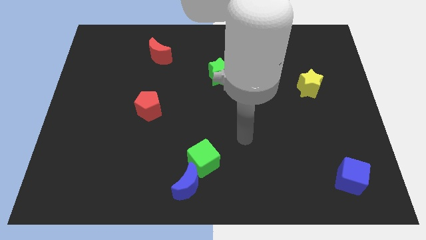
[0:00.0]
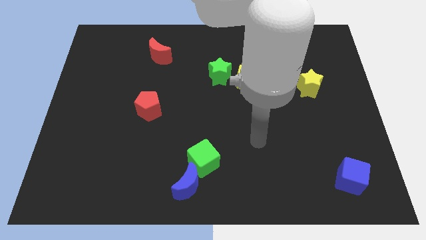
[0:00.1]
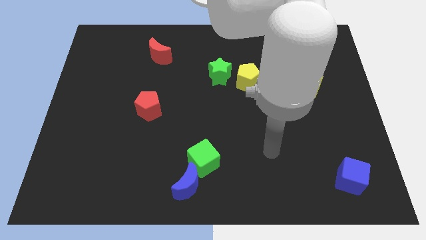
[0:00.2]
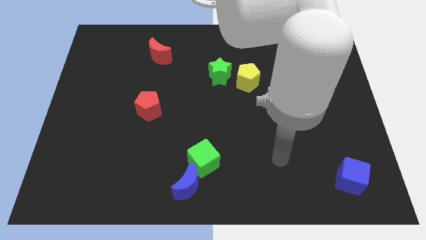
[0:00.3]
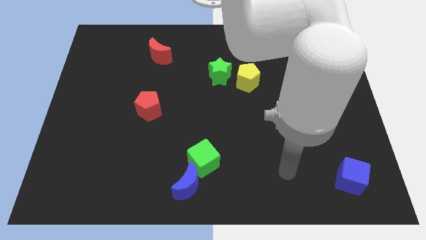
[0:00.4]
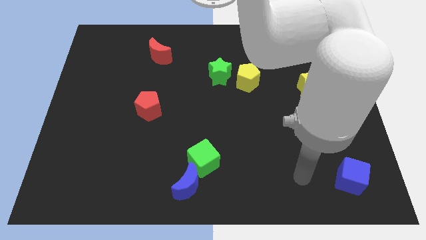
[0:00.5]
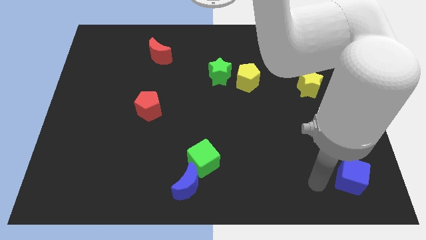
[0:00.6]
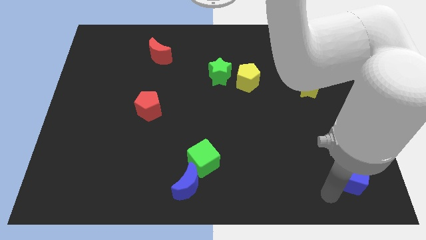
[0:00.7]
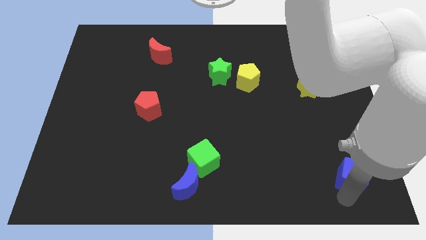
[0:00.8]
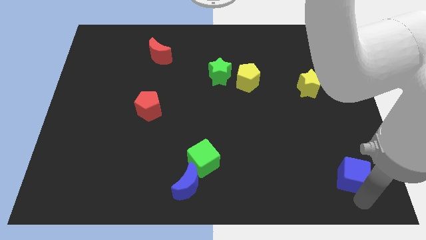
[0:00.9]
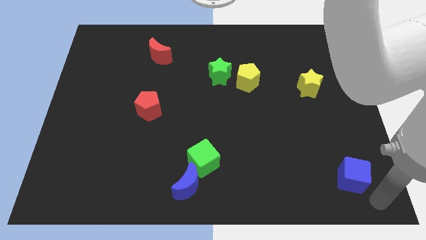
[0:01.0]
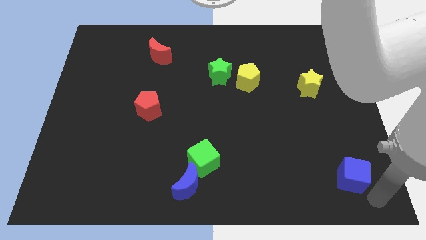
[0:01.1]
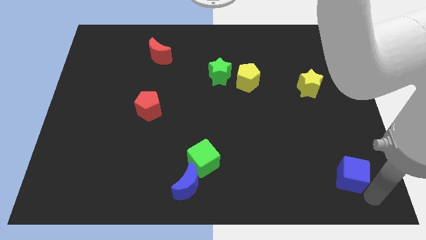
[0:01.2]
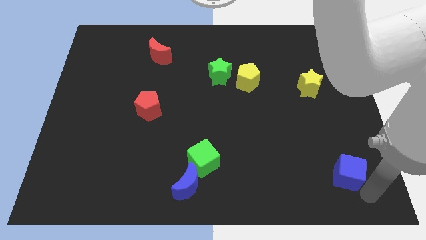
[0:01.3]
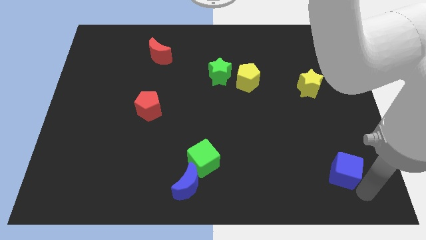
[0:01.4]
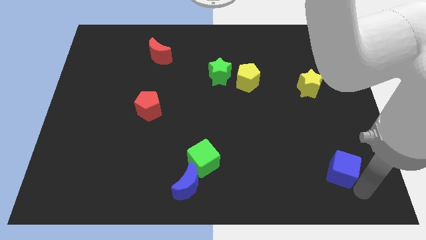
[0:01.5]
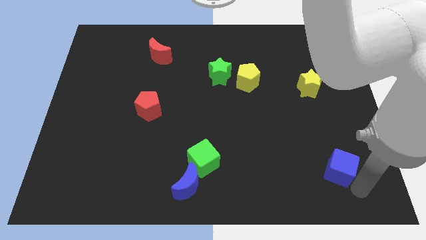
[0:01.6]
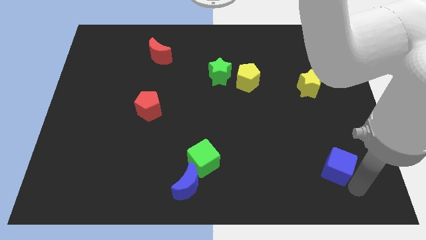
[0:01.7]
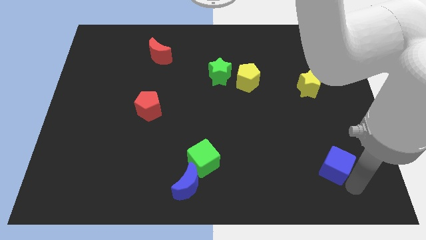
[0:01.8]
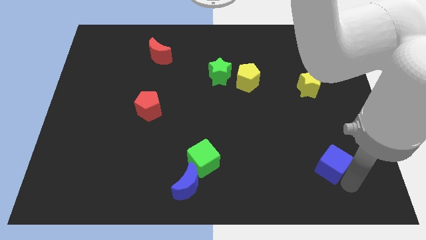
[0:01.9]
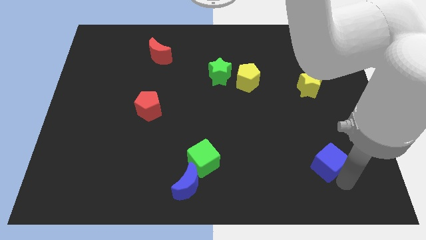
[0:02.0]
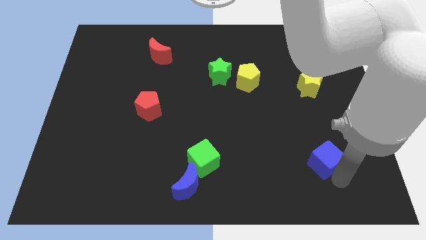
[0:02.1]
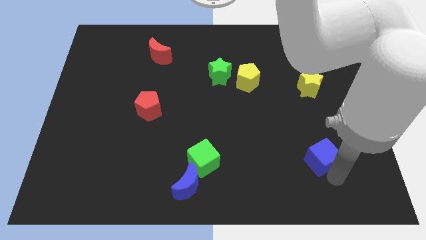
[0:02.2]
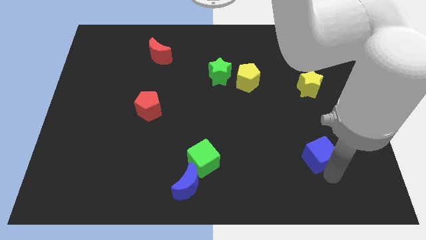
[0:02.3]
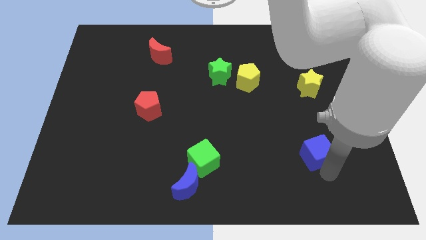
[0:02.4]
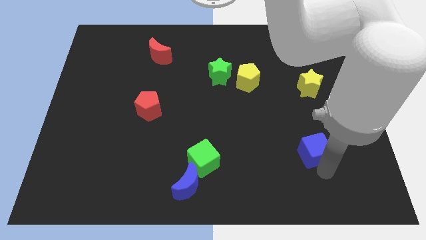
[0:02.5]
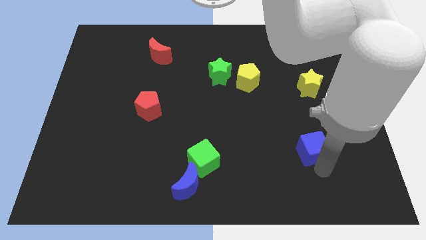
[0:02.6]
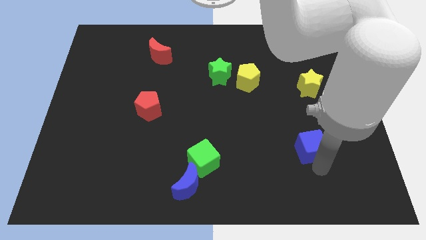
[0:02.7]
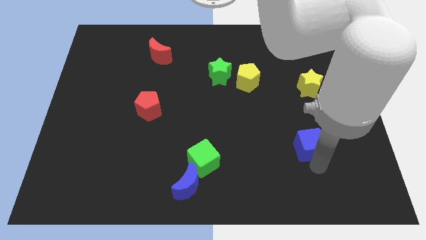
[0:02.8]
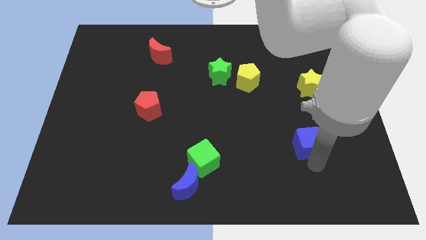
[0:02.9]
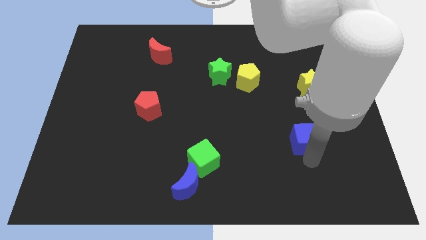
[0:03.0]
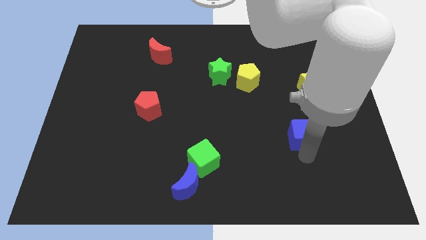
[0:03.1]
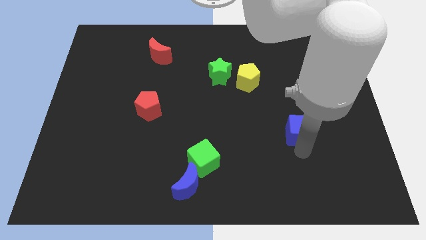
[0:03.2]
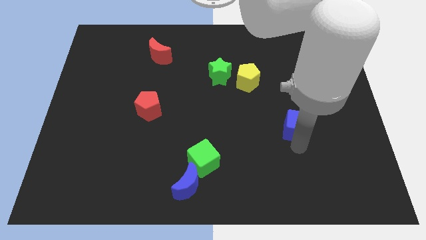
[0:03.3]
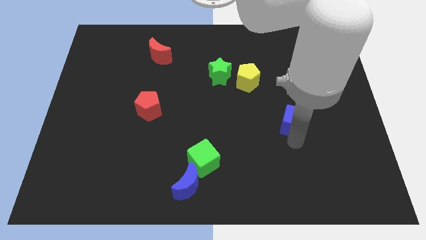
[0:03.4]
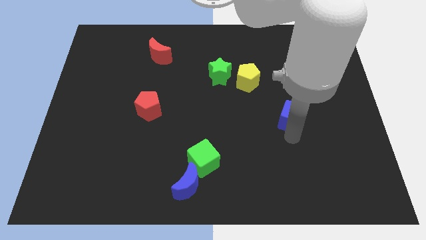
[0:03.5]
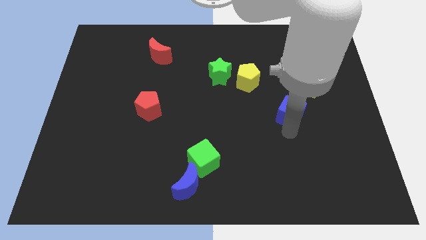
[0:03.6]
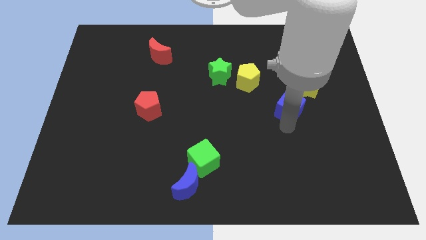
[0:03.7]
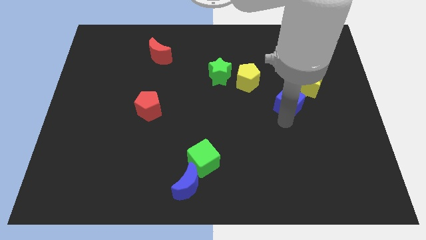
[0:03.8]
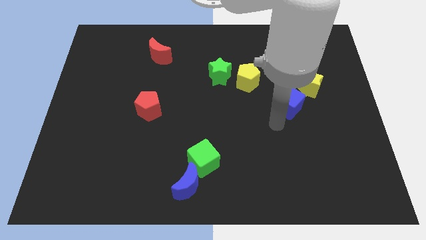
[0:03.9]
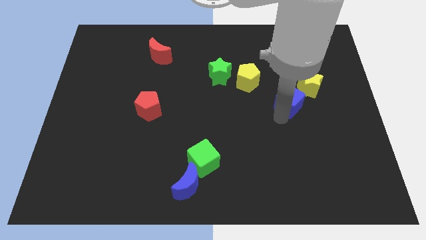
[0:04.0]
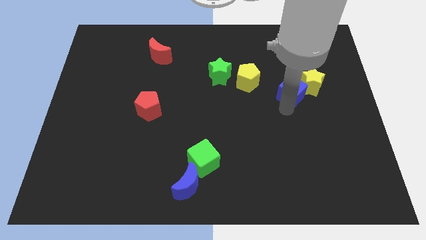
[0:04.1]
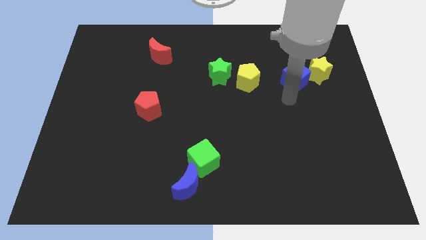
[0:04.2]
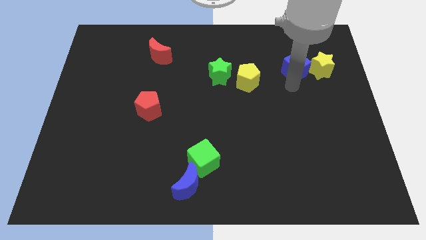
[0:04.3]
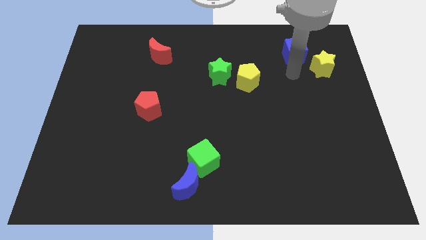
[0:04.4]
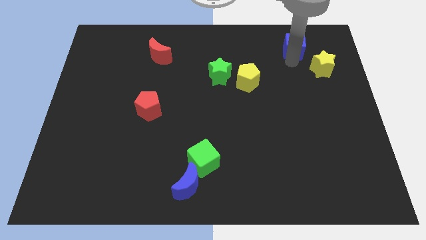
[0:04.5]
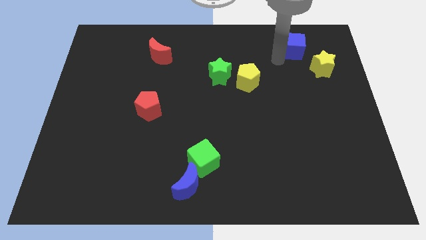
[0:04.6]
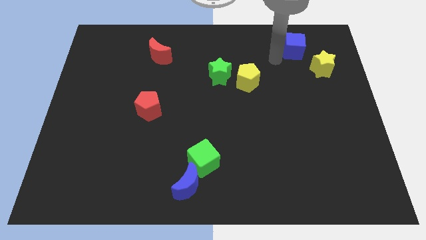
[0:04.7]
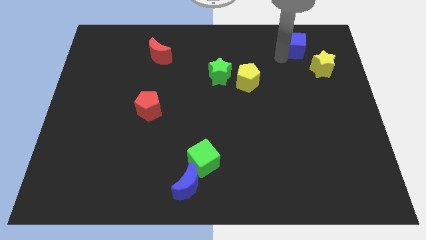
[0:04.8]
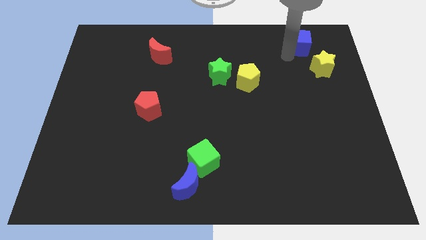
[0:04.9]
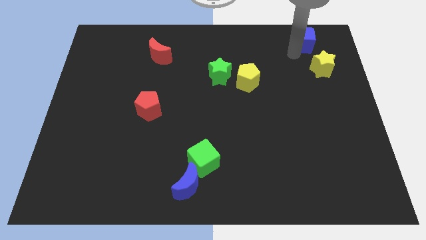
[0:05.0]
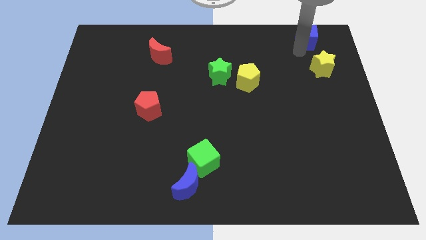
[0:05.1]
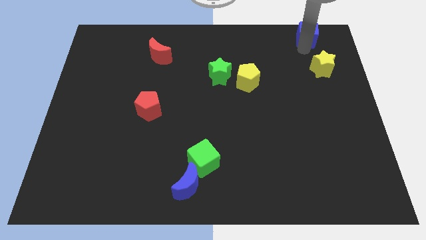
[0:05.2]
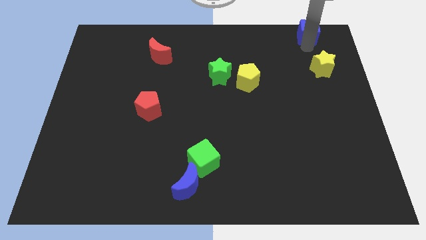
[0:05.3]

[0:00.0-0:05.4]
slide the blue cube to the top right corner

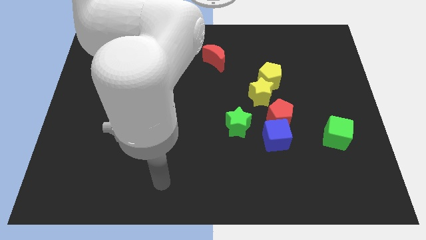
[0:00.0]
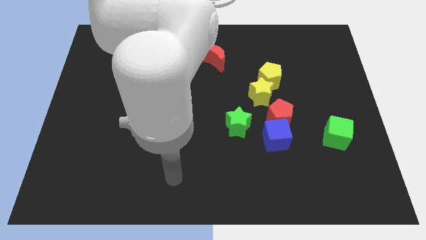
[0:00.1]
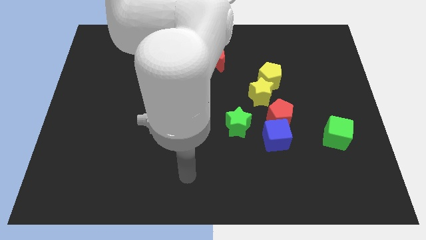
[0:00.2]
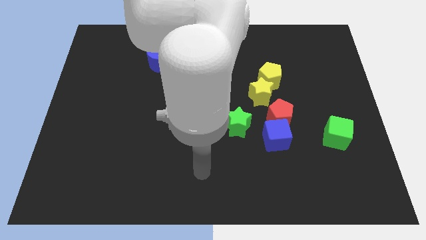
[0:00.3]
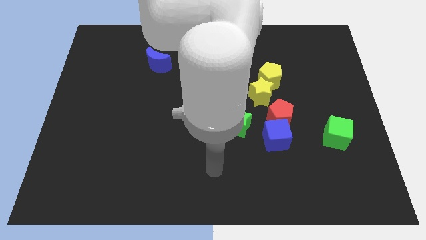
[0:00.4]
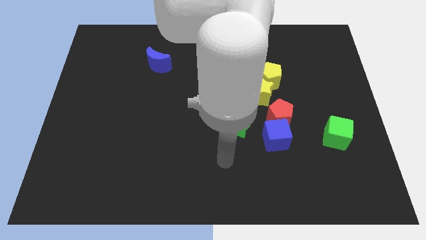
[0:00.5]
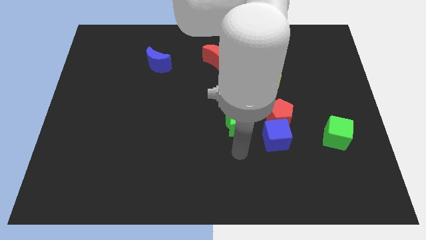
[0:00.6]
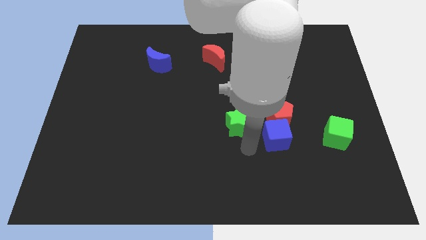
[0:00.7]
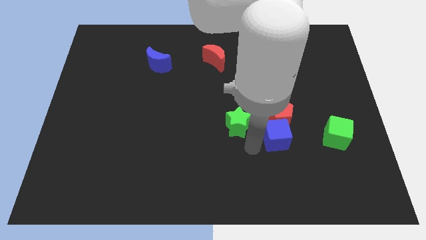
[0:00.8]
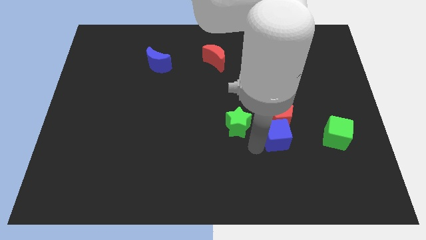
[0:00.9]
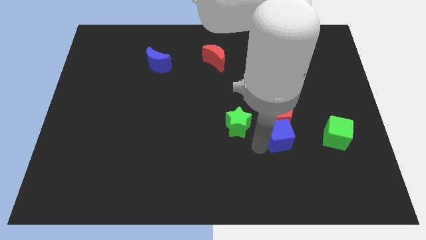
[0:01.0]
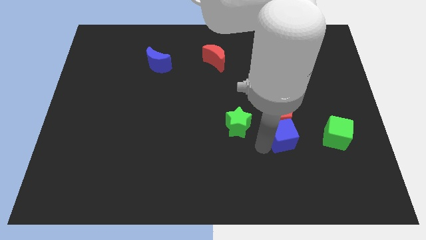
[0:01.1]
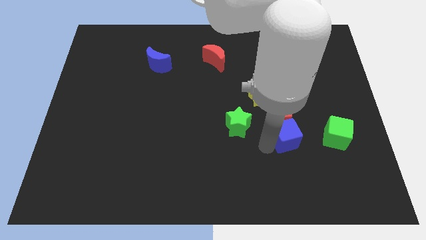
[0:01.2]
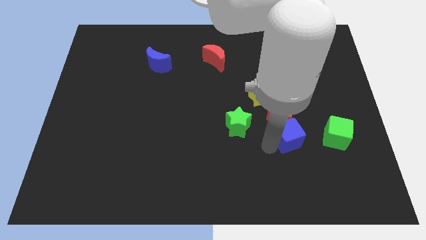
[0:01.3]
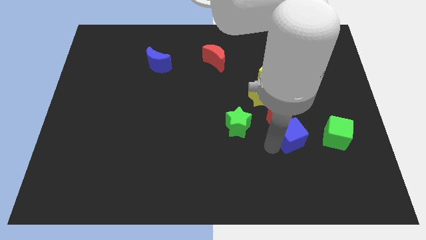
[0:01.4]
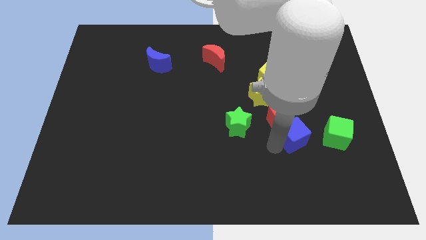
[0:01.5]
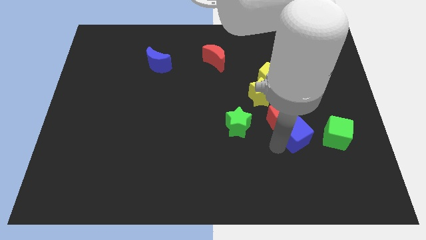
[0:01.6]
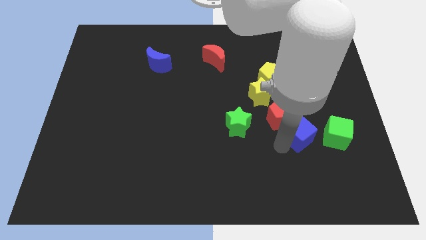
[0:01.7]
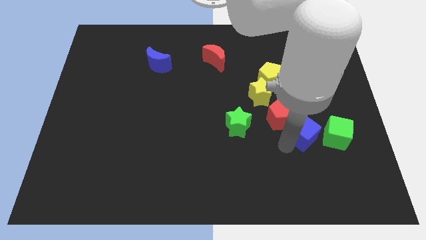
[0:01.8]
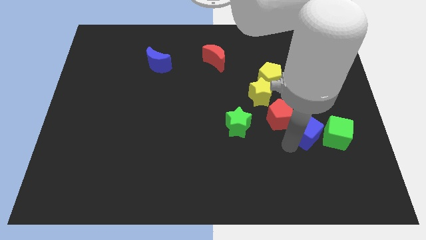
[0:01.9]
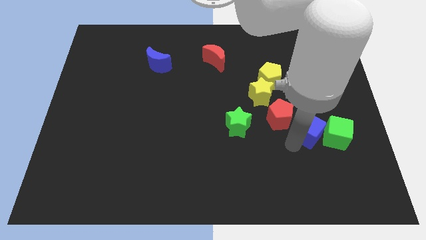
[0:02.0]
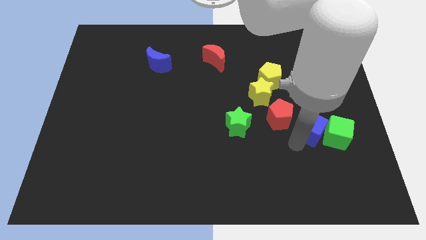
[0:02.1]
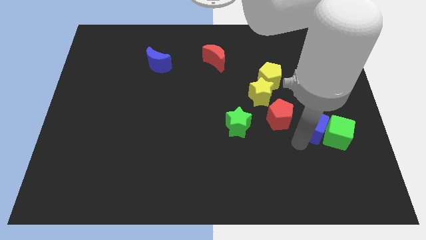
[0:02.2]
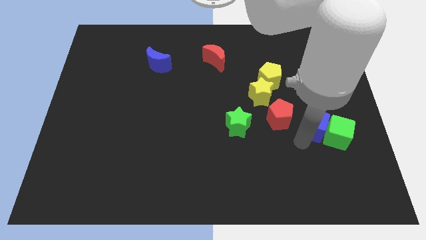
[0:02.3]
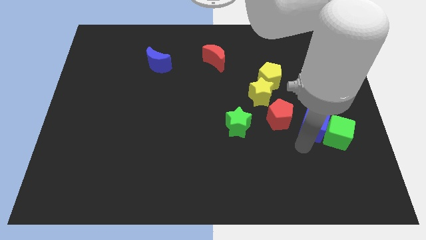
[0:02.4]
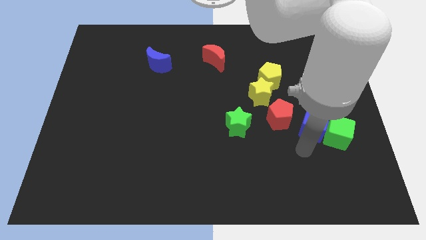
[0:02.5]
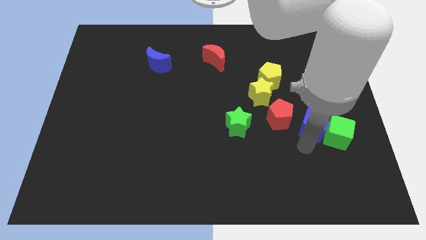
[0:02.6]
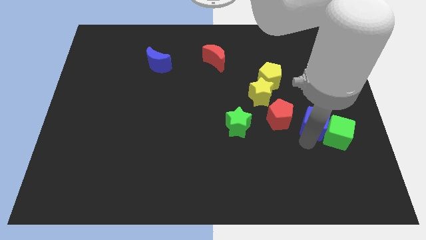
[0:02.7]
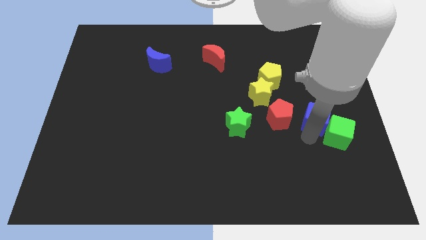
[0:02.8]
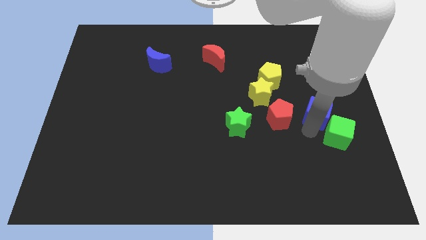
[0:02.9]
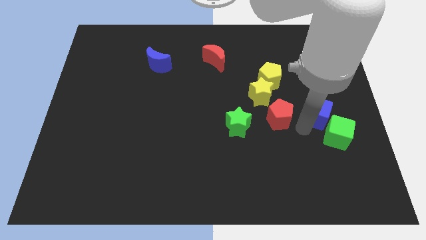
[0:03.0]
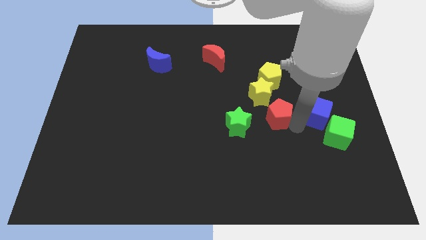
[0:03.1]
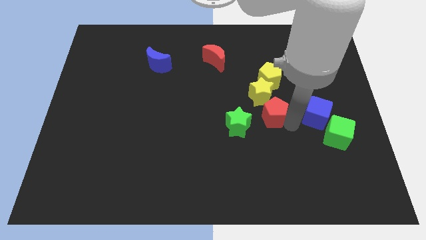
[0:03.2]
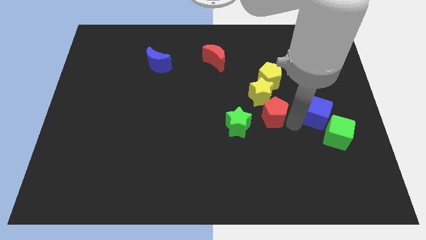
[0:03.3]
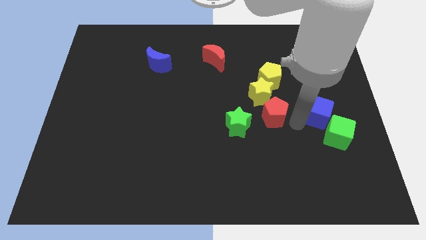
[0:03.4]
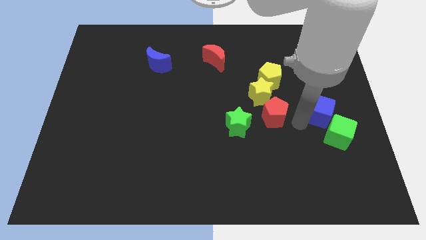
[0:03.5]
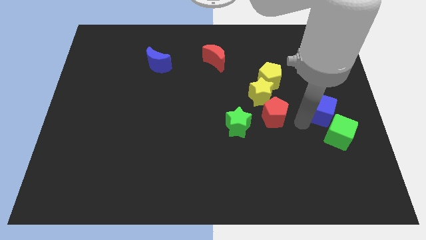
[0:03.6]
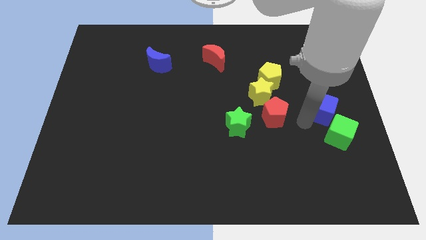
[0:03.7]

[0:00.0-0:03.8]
slide the blue cube to the right side
